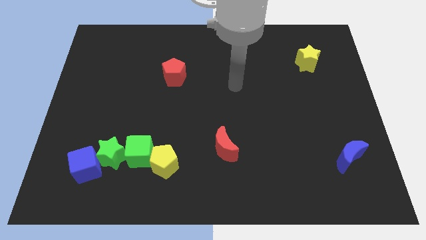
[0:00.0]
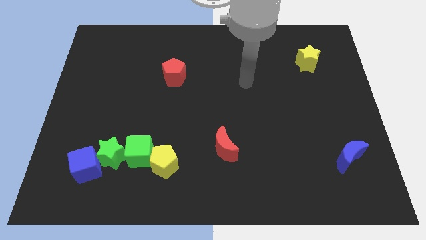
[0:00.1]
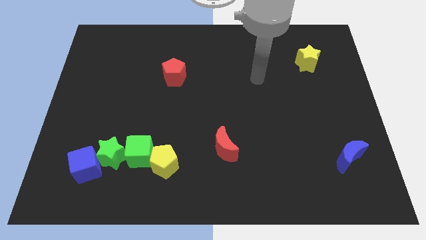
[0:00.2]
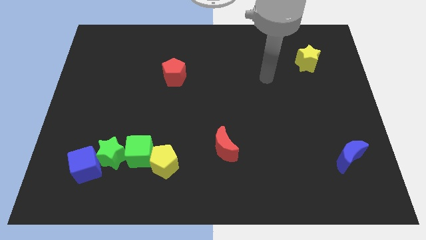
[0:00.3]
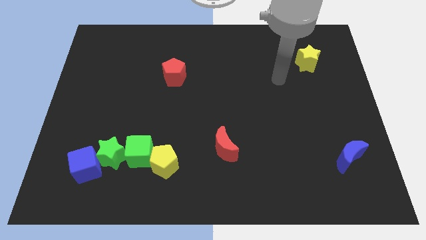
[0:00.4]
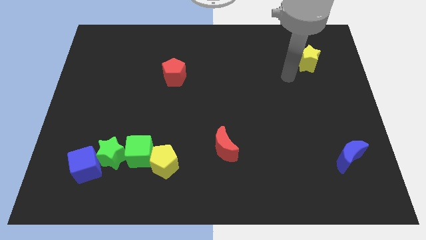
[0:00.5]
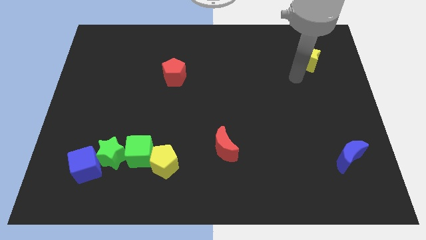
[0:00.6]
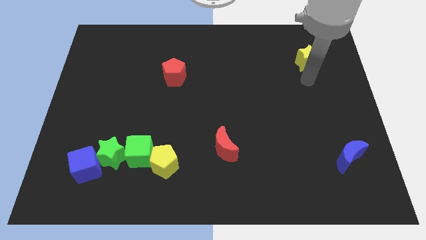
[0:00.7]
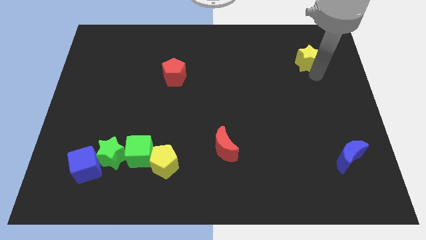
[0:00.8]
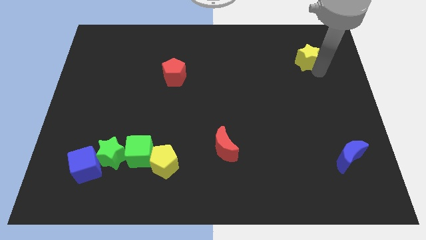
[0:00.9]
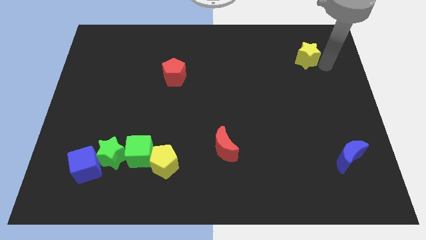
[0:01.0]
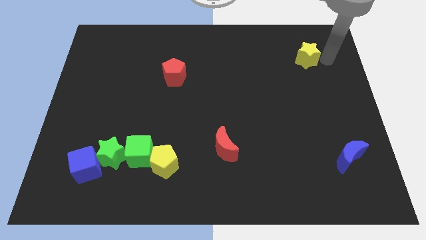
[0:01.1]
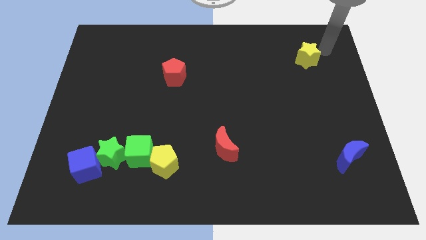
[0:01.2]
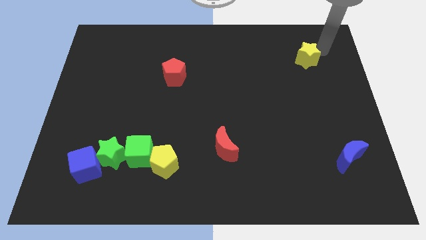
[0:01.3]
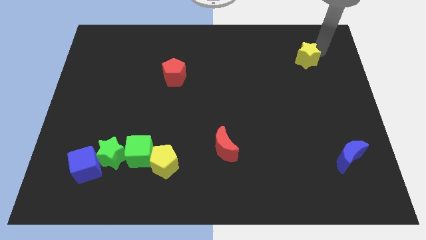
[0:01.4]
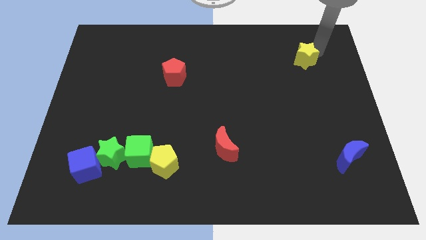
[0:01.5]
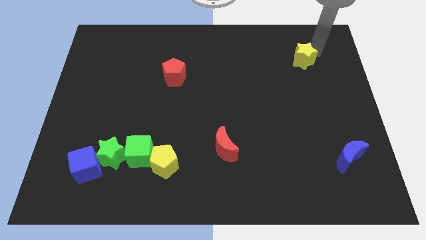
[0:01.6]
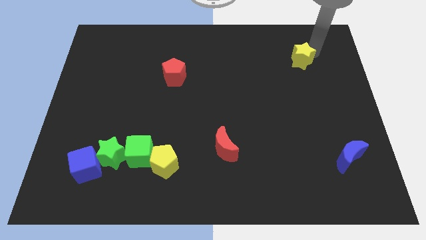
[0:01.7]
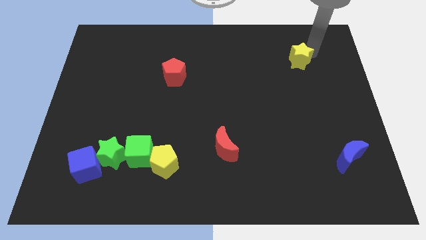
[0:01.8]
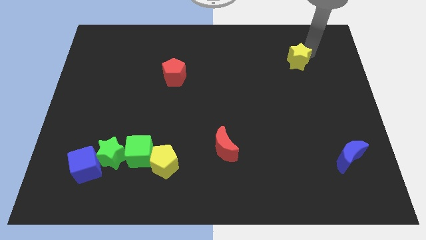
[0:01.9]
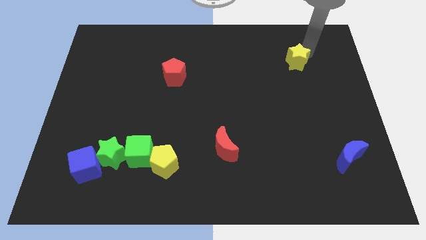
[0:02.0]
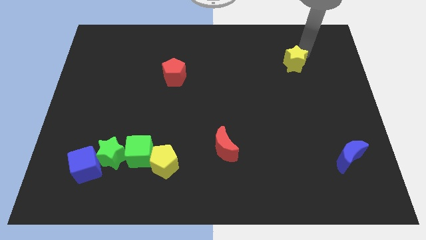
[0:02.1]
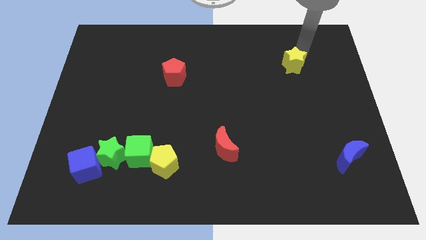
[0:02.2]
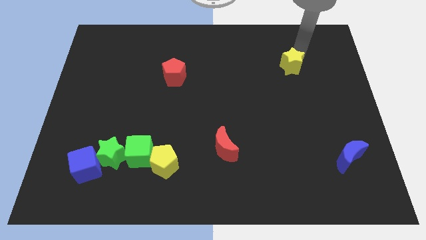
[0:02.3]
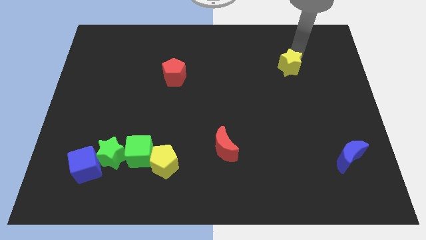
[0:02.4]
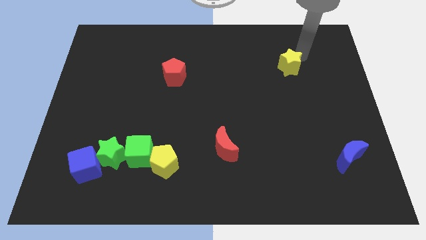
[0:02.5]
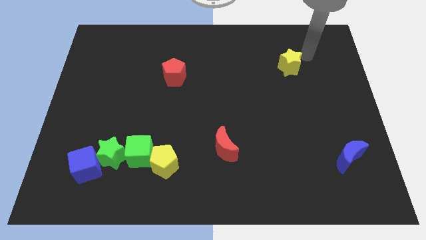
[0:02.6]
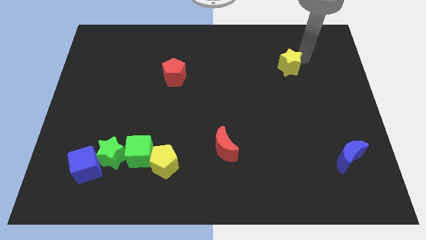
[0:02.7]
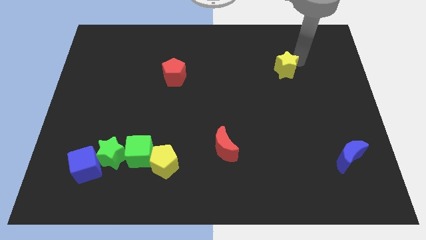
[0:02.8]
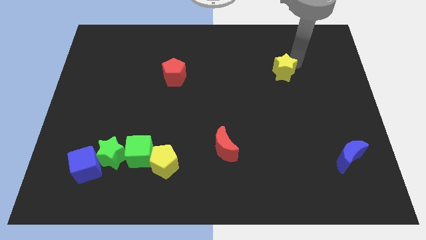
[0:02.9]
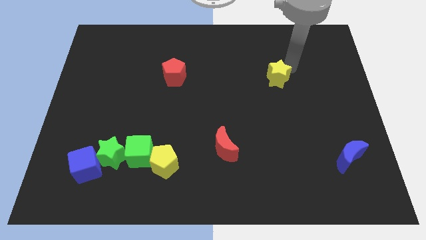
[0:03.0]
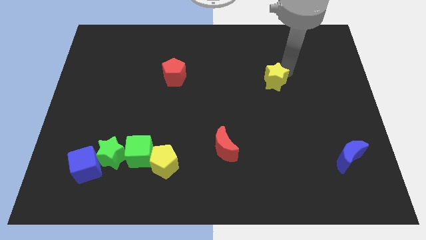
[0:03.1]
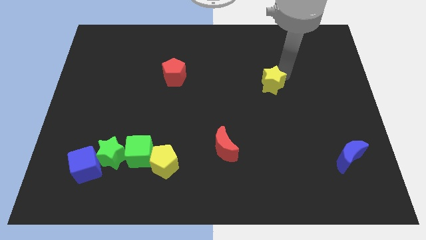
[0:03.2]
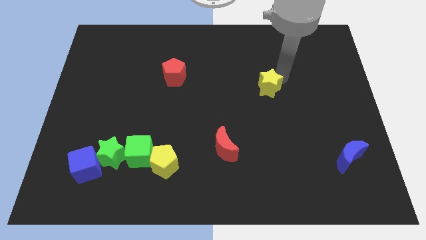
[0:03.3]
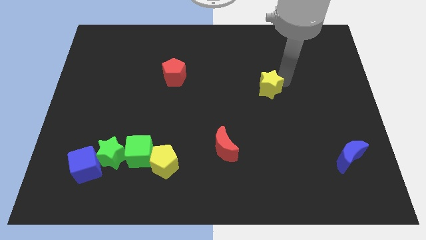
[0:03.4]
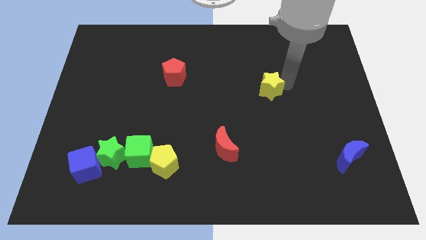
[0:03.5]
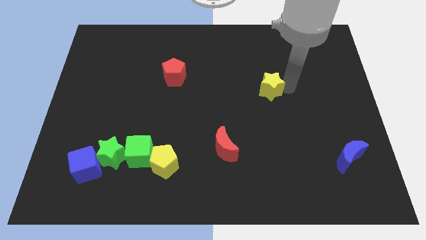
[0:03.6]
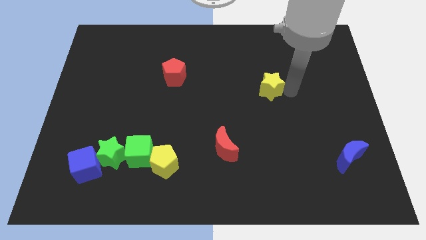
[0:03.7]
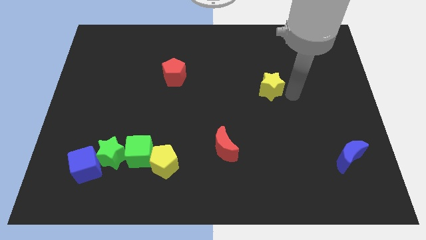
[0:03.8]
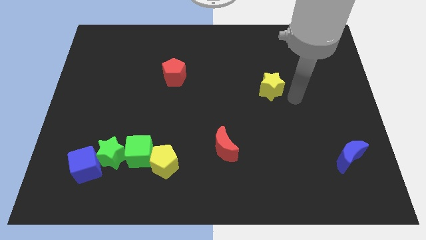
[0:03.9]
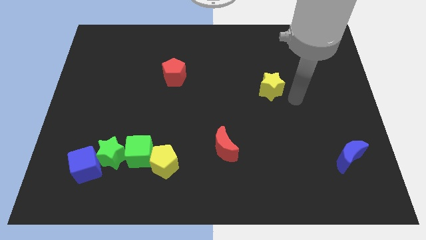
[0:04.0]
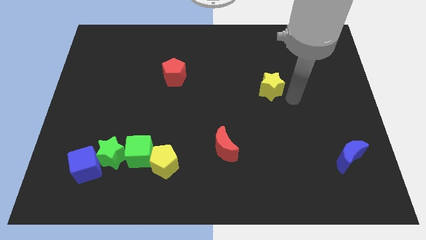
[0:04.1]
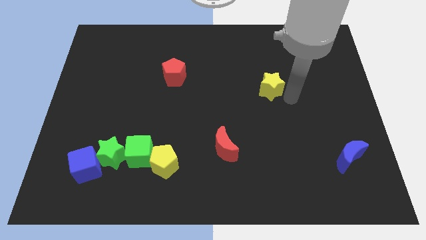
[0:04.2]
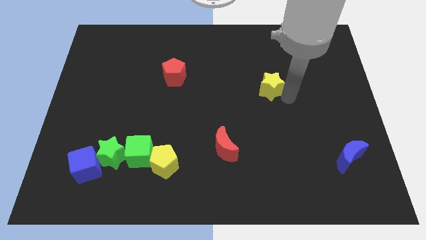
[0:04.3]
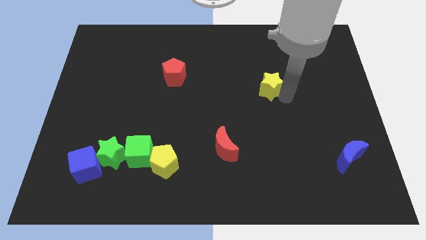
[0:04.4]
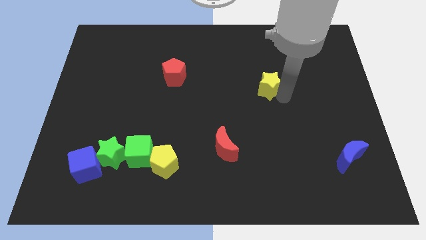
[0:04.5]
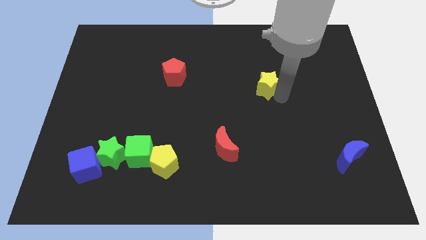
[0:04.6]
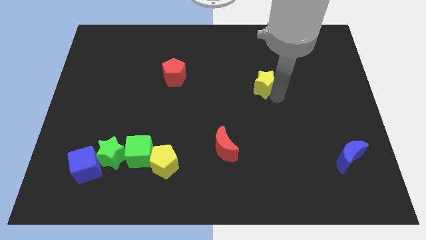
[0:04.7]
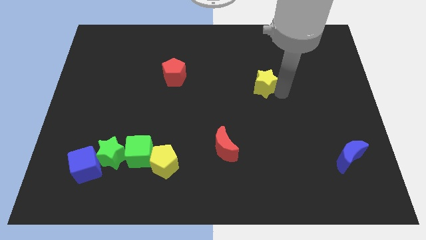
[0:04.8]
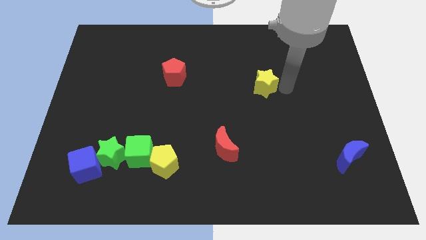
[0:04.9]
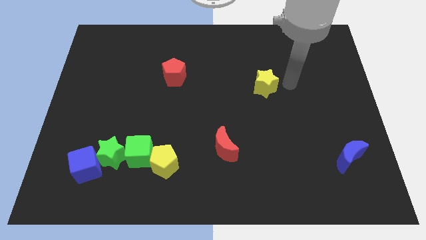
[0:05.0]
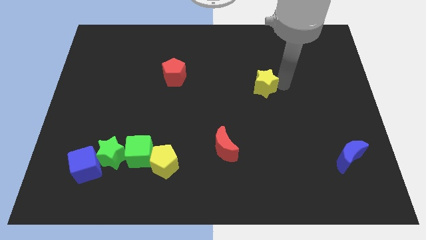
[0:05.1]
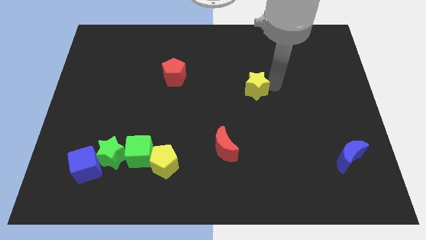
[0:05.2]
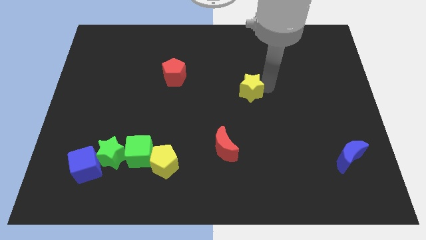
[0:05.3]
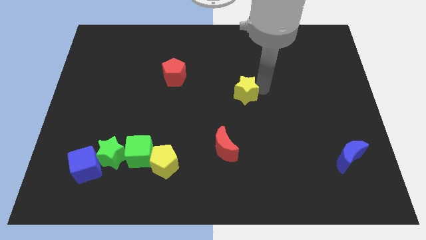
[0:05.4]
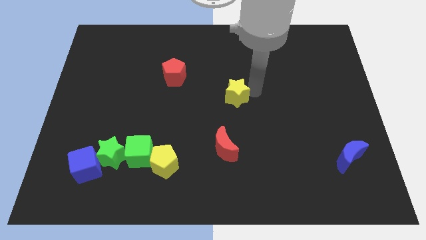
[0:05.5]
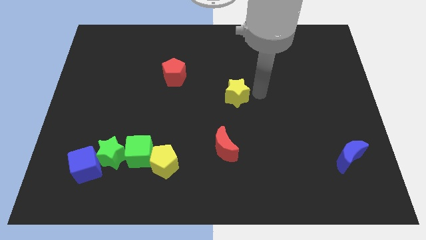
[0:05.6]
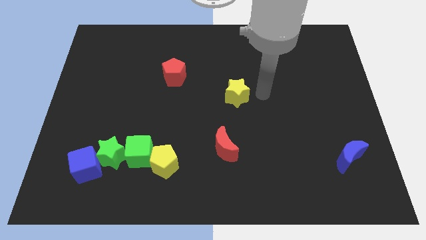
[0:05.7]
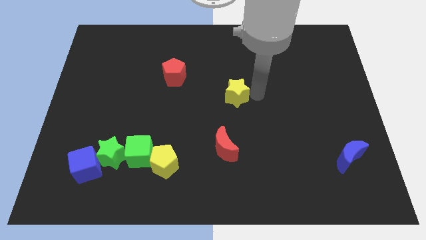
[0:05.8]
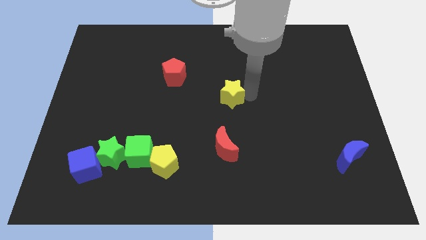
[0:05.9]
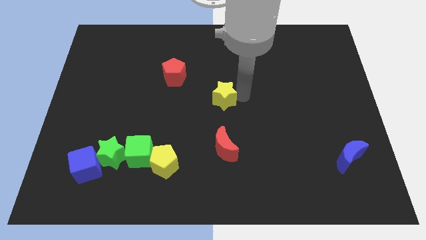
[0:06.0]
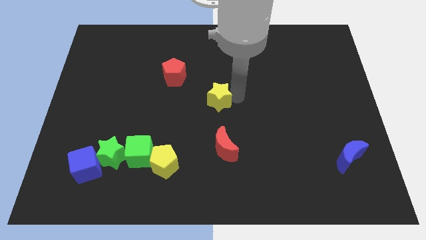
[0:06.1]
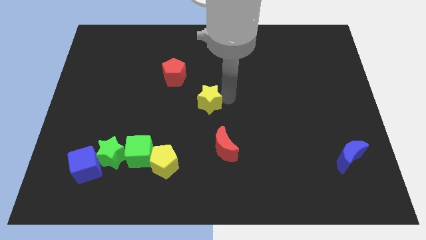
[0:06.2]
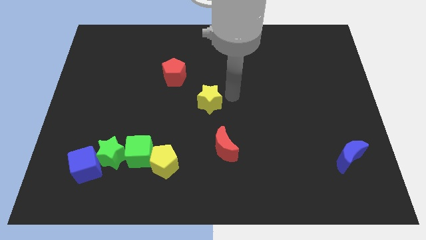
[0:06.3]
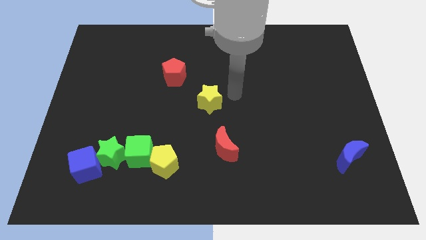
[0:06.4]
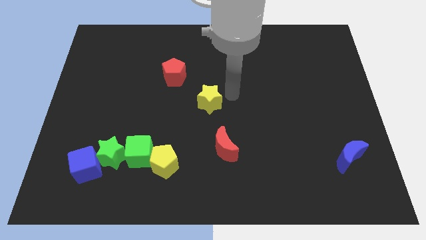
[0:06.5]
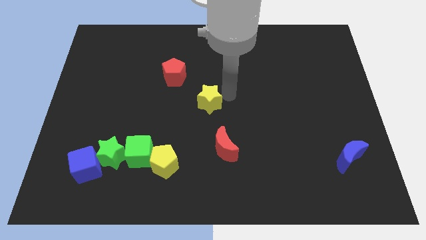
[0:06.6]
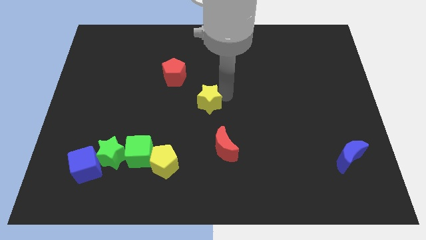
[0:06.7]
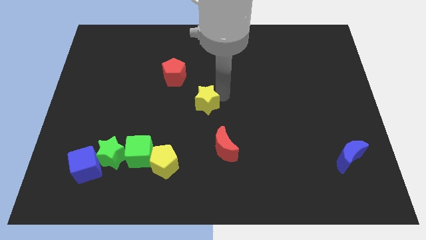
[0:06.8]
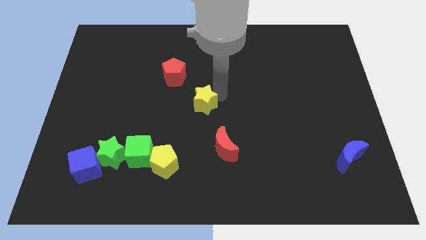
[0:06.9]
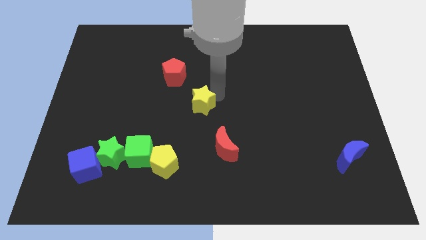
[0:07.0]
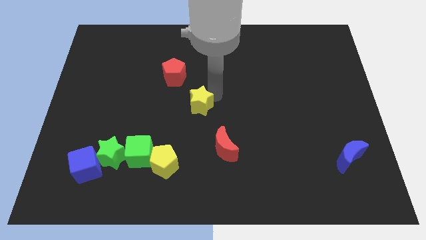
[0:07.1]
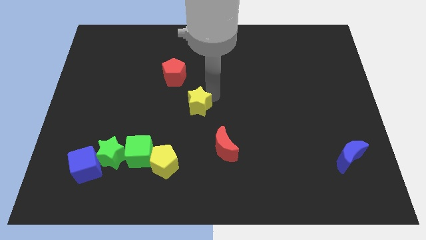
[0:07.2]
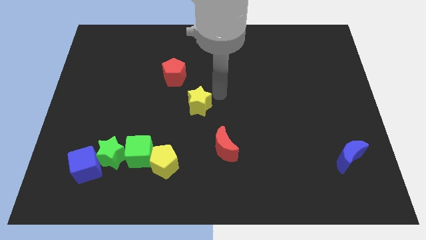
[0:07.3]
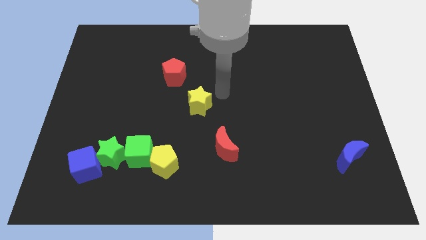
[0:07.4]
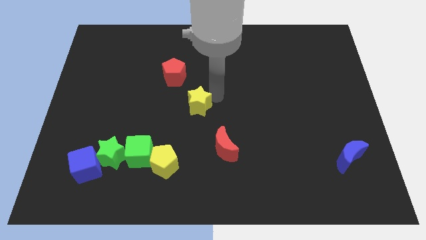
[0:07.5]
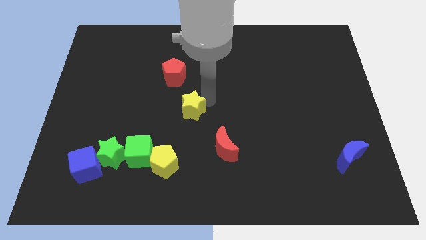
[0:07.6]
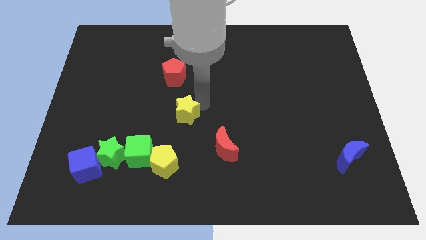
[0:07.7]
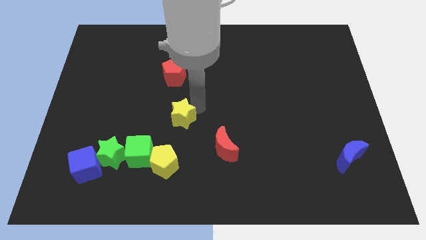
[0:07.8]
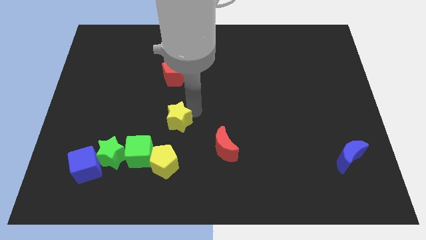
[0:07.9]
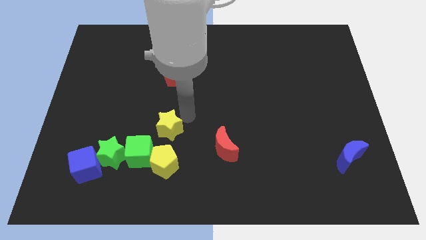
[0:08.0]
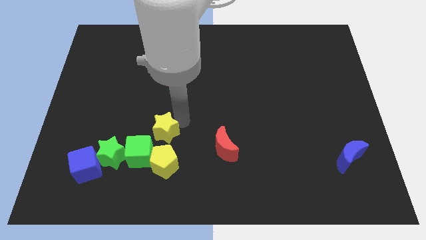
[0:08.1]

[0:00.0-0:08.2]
put the yellow star diagonally up and to the right of the green star
